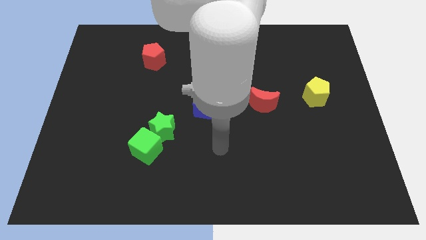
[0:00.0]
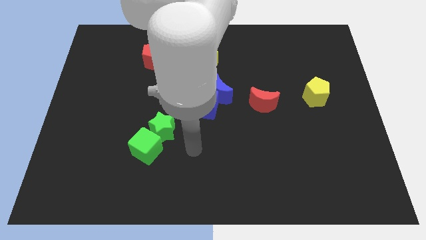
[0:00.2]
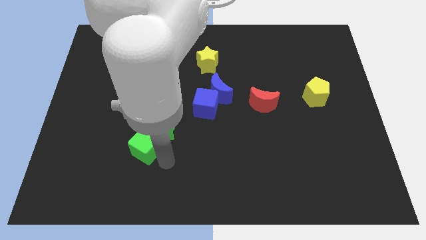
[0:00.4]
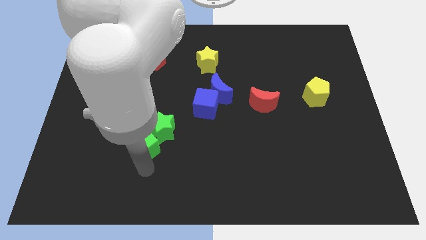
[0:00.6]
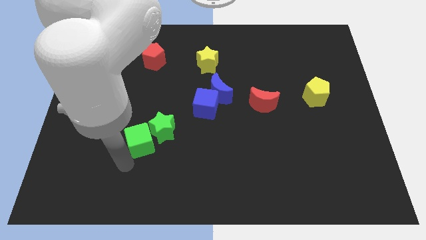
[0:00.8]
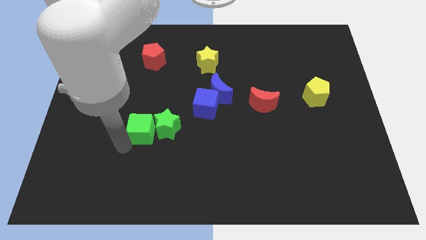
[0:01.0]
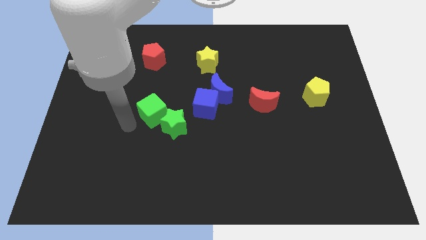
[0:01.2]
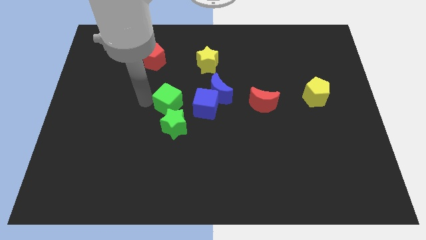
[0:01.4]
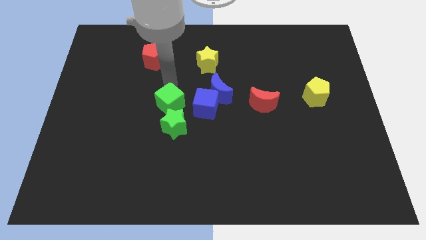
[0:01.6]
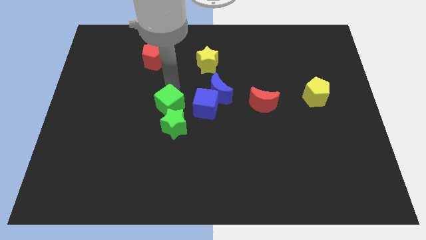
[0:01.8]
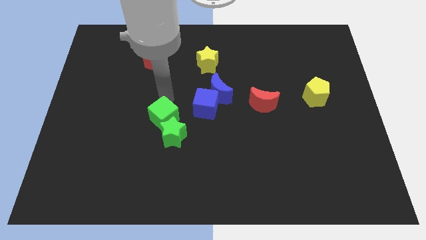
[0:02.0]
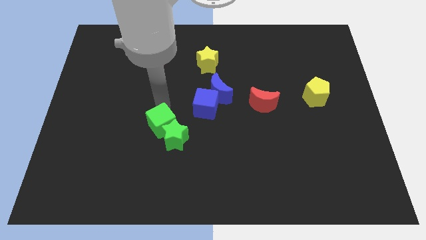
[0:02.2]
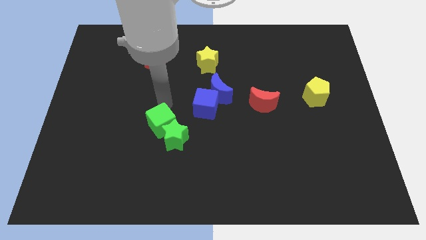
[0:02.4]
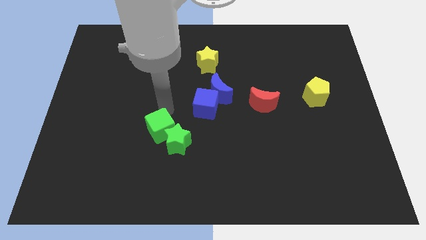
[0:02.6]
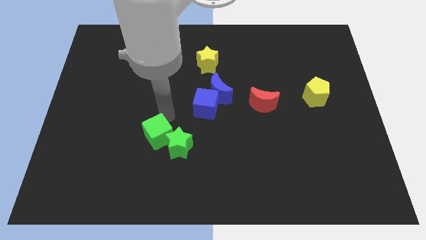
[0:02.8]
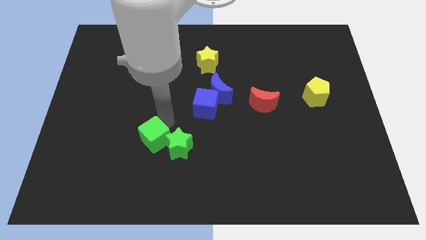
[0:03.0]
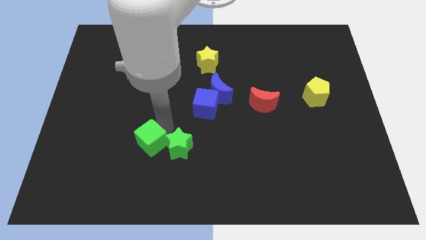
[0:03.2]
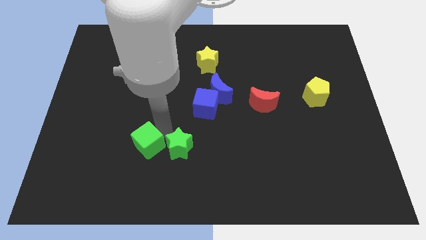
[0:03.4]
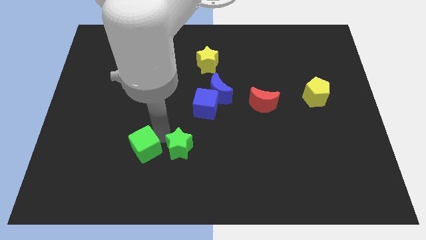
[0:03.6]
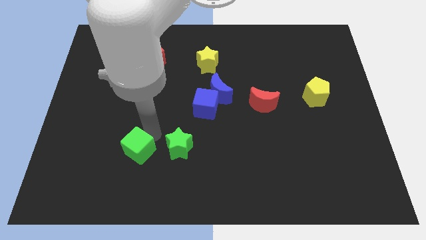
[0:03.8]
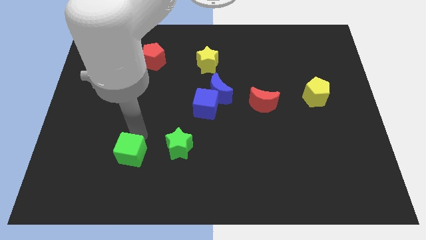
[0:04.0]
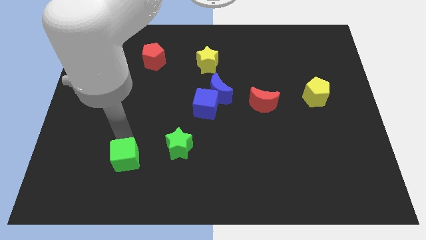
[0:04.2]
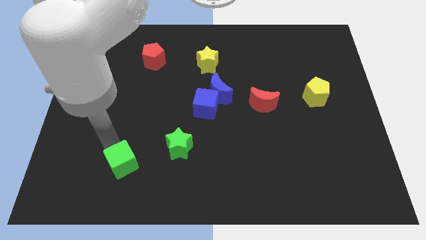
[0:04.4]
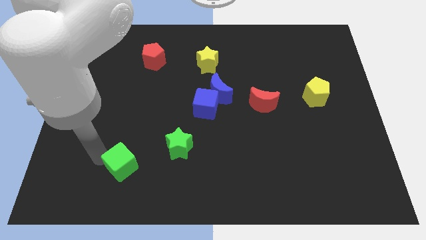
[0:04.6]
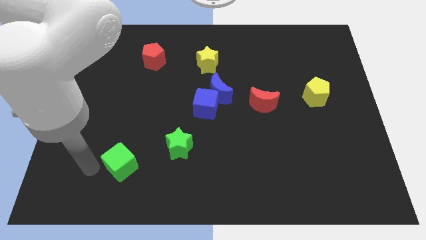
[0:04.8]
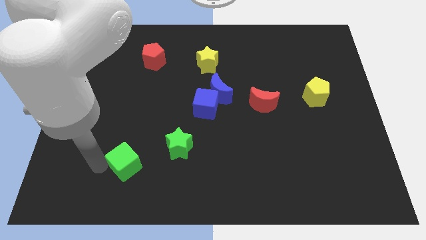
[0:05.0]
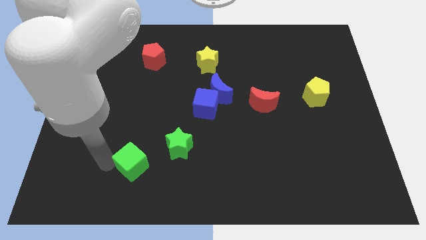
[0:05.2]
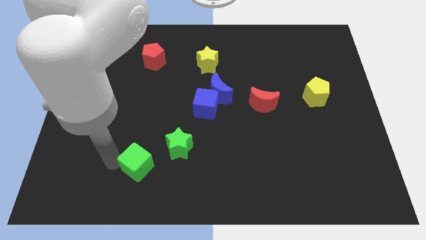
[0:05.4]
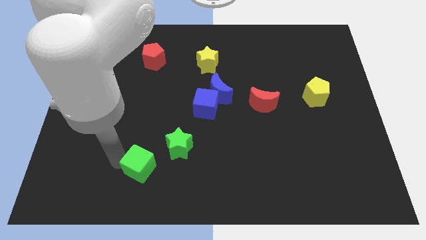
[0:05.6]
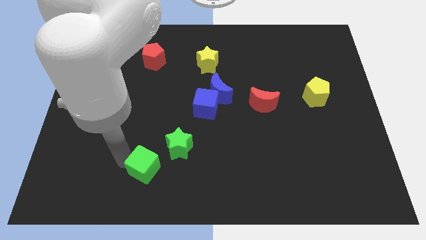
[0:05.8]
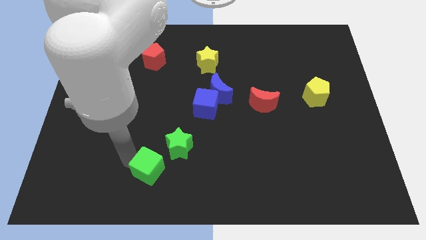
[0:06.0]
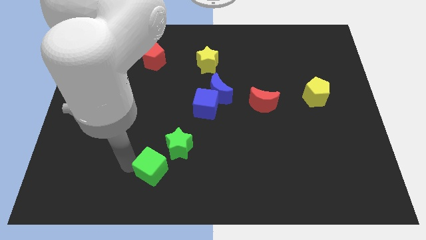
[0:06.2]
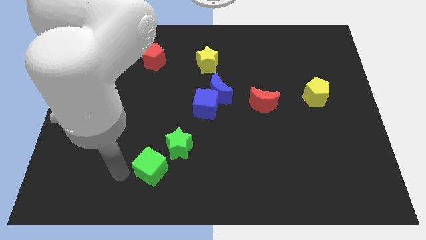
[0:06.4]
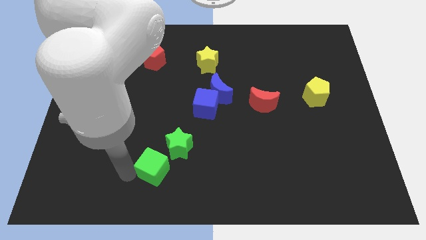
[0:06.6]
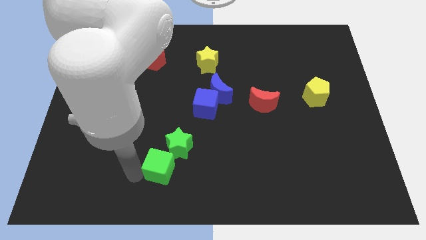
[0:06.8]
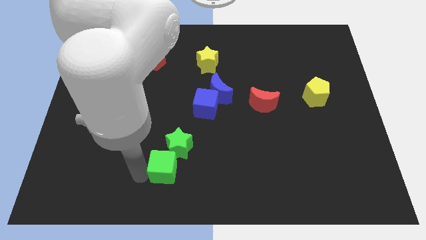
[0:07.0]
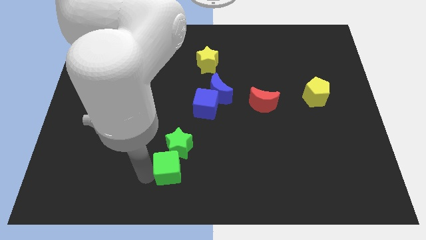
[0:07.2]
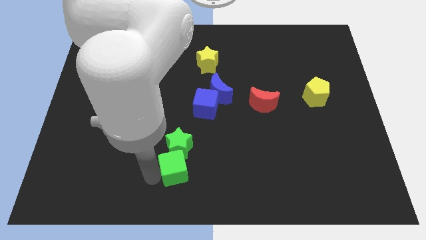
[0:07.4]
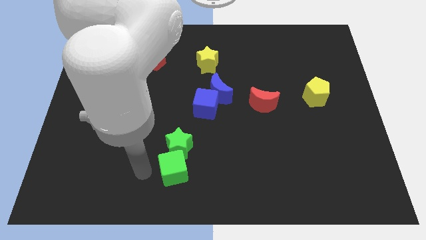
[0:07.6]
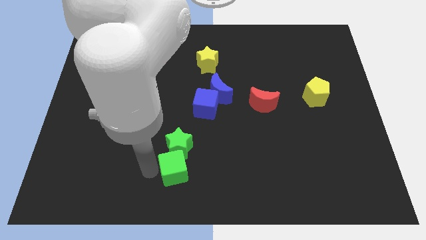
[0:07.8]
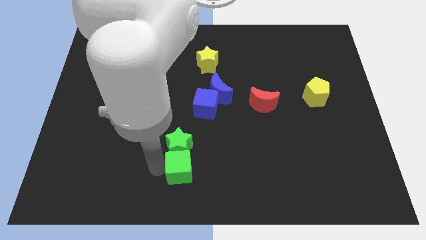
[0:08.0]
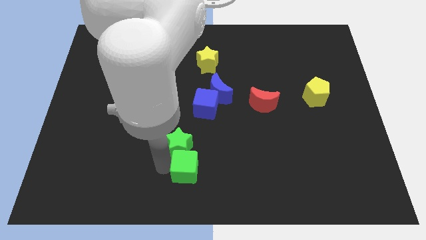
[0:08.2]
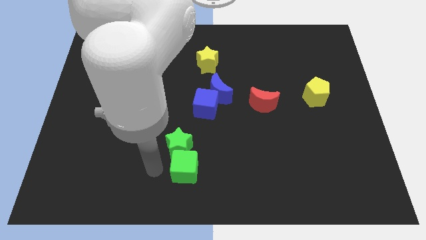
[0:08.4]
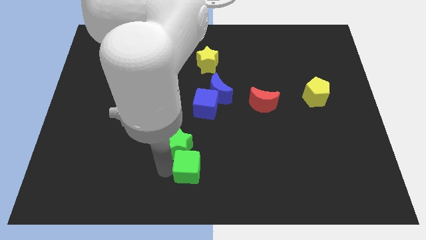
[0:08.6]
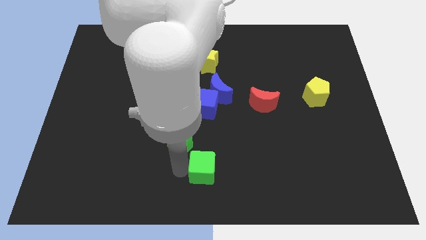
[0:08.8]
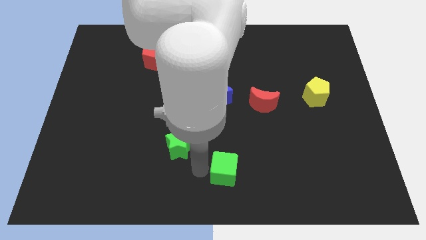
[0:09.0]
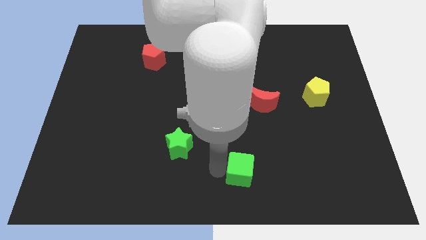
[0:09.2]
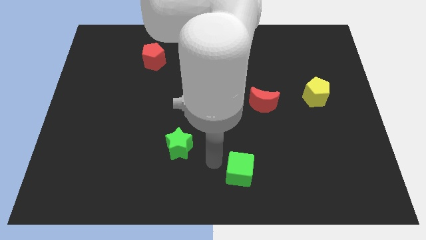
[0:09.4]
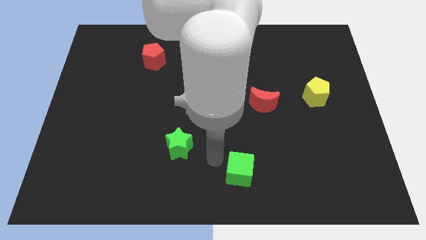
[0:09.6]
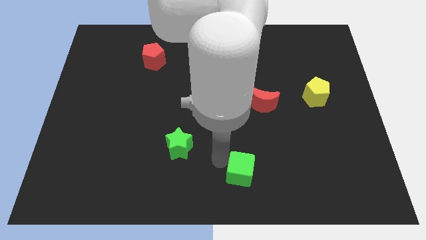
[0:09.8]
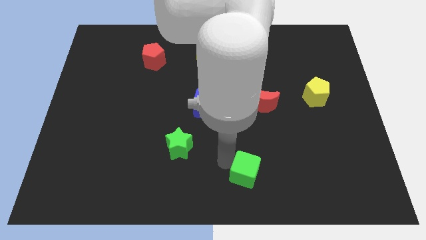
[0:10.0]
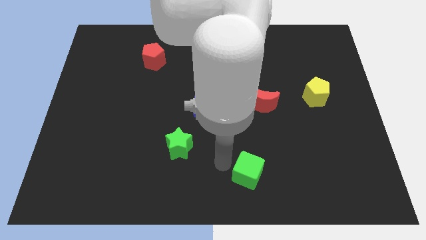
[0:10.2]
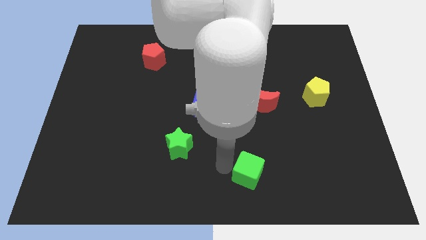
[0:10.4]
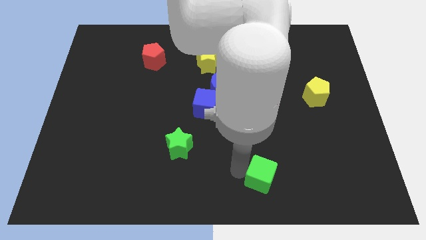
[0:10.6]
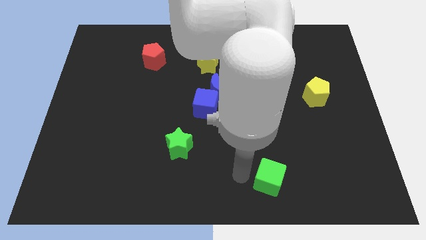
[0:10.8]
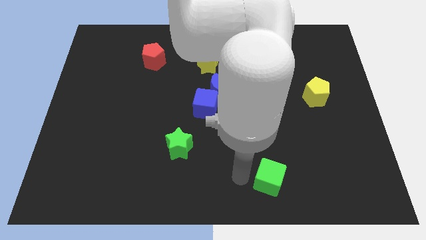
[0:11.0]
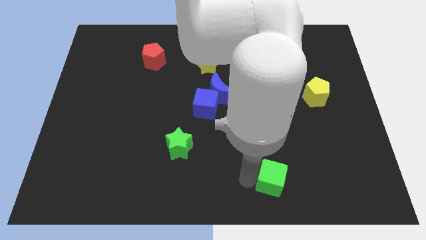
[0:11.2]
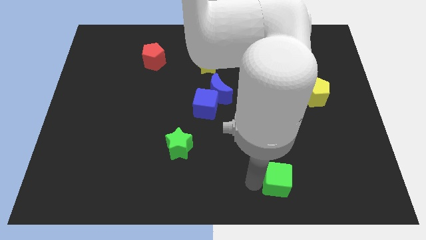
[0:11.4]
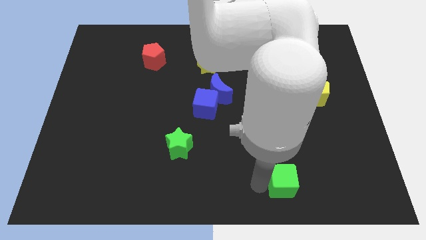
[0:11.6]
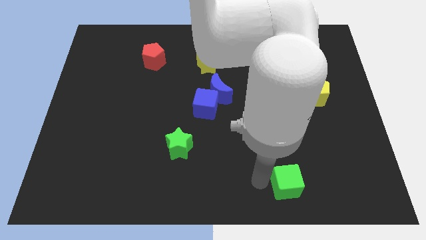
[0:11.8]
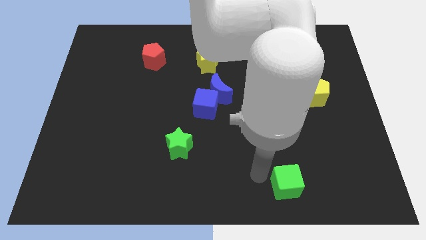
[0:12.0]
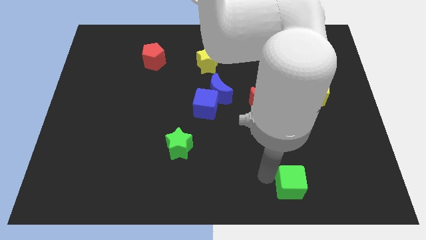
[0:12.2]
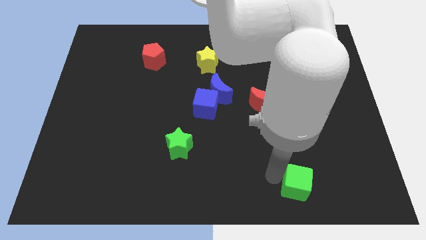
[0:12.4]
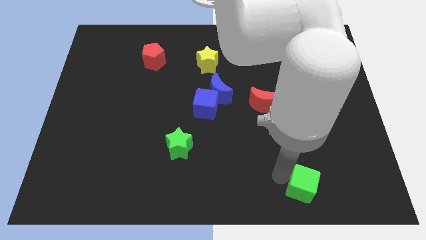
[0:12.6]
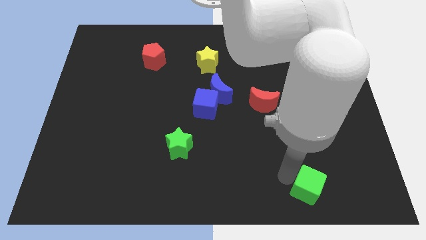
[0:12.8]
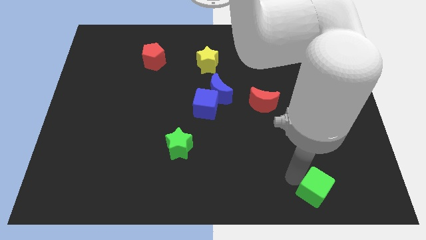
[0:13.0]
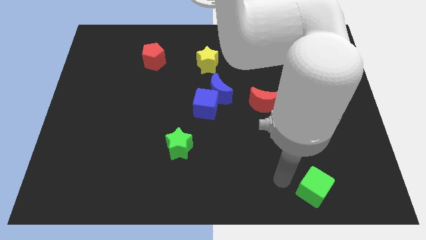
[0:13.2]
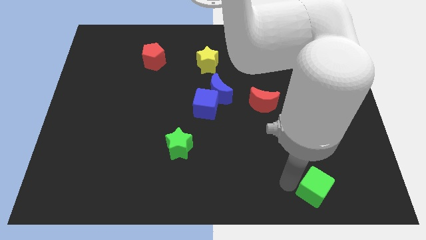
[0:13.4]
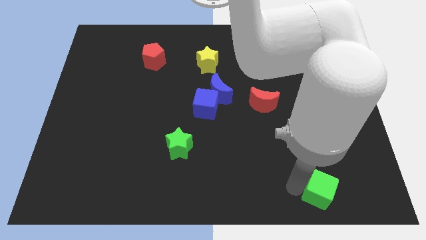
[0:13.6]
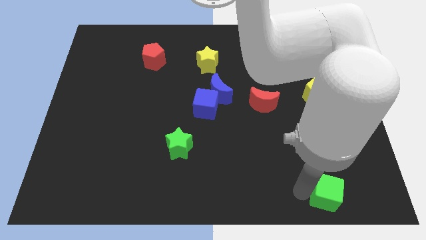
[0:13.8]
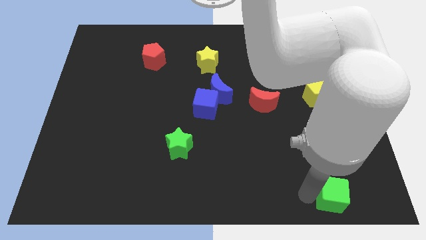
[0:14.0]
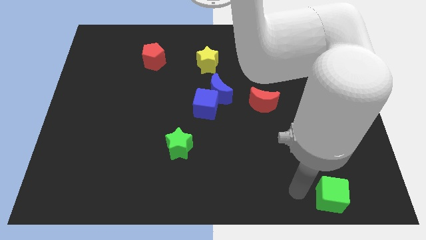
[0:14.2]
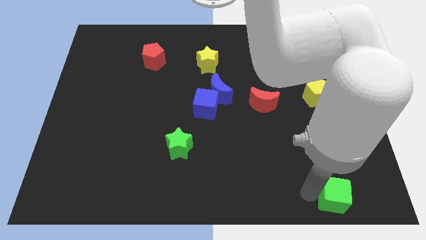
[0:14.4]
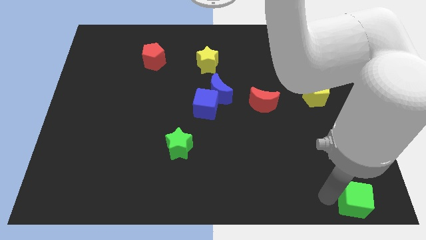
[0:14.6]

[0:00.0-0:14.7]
move the green cube to the bottom right of the board

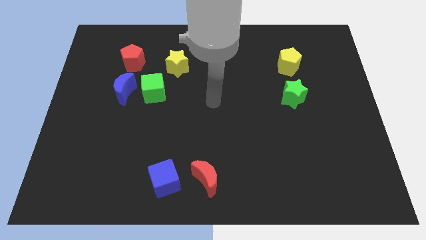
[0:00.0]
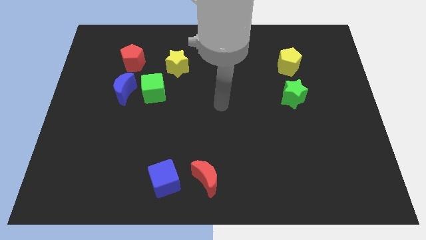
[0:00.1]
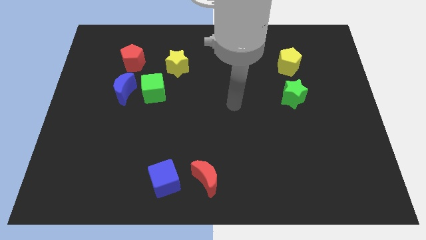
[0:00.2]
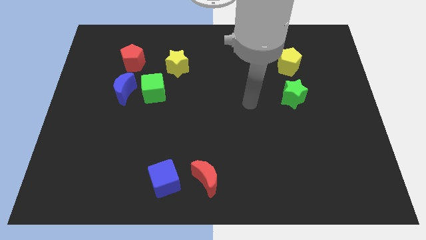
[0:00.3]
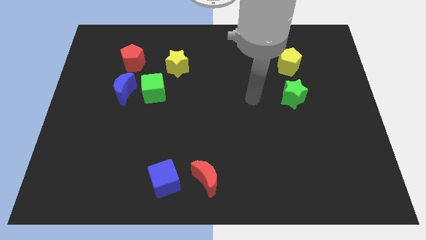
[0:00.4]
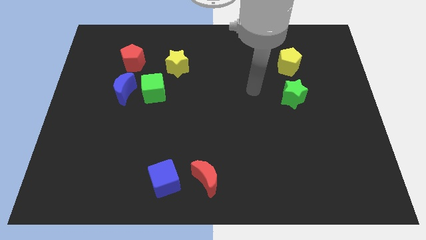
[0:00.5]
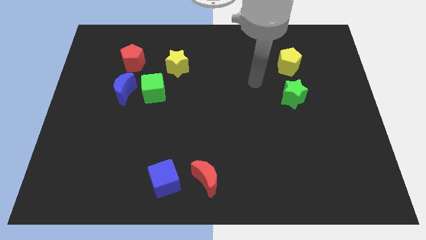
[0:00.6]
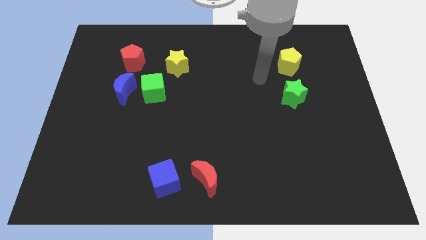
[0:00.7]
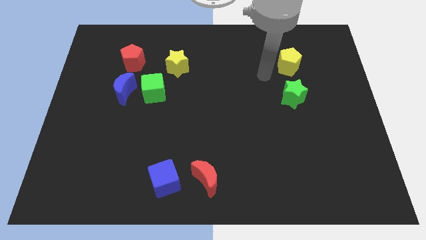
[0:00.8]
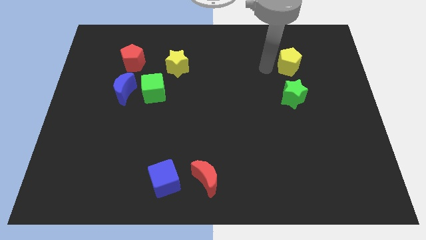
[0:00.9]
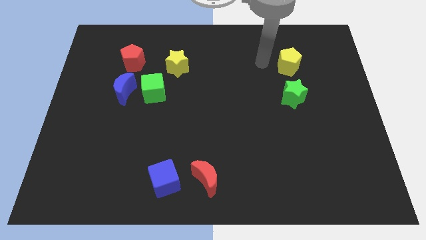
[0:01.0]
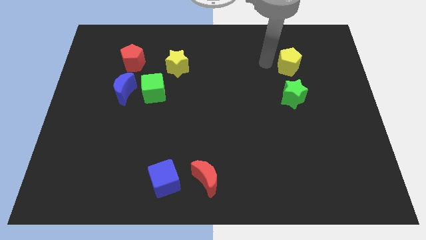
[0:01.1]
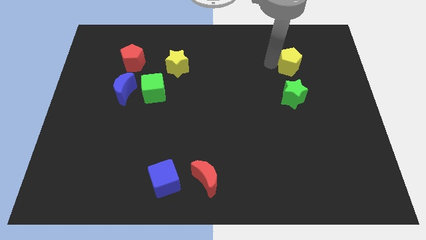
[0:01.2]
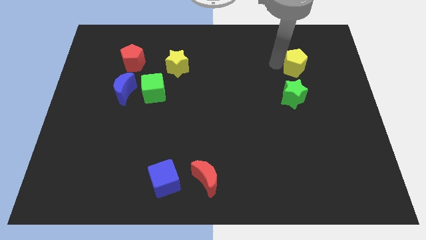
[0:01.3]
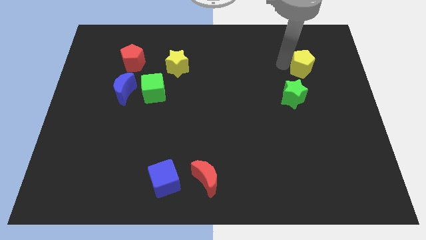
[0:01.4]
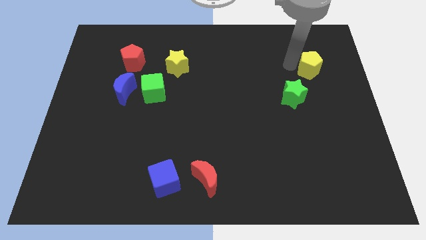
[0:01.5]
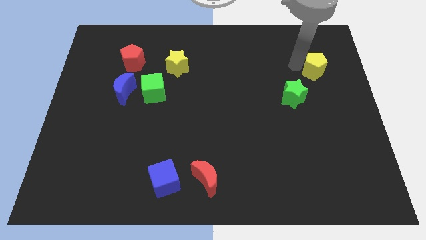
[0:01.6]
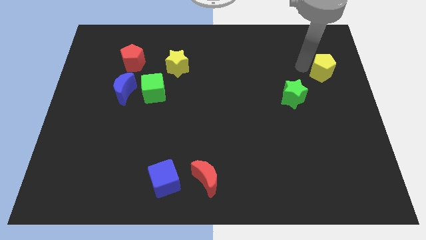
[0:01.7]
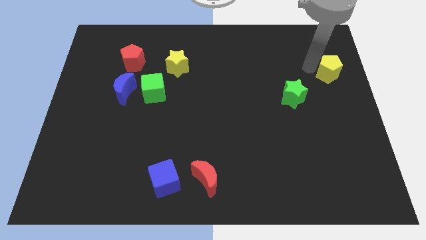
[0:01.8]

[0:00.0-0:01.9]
slide the yellow pentagon to the right side of the board
